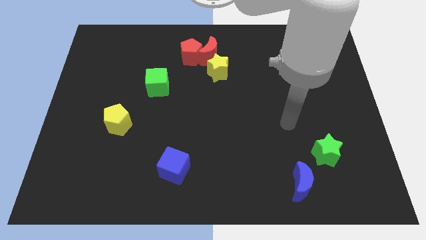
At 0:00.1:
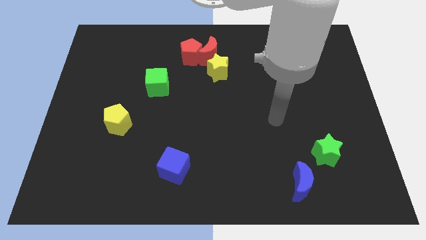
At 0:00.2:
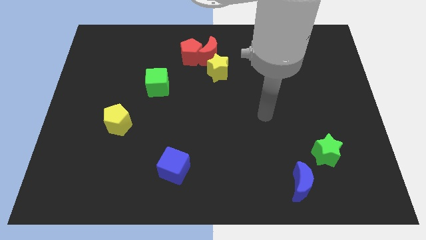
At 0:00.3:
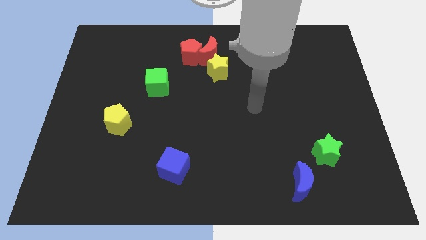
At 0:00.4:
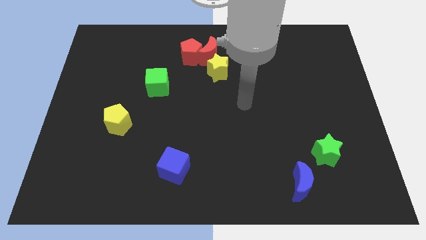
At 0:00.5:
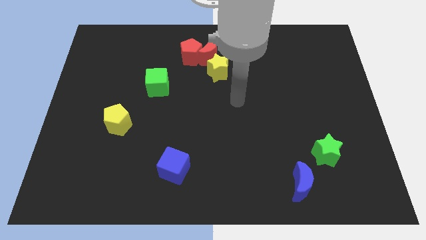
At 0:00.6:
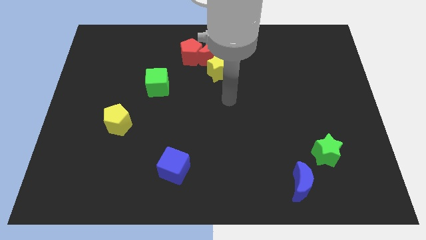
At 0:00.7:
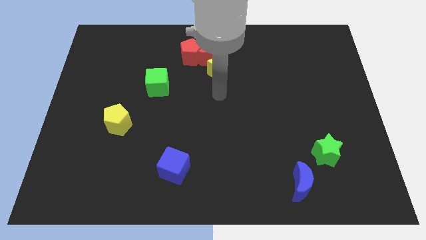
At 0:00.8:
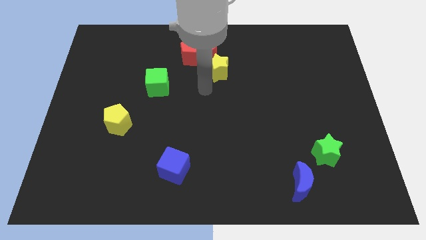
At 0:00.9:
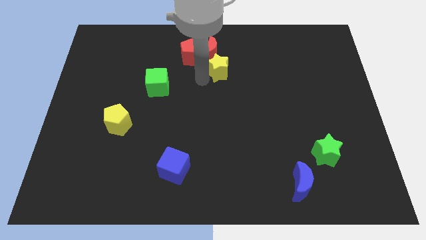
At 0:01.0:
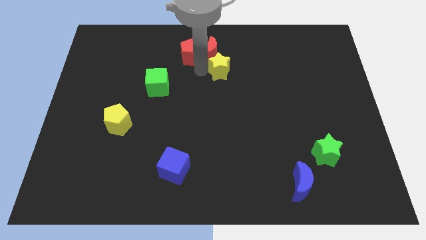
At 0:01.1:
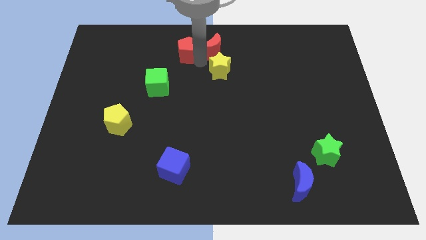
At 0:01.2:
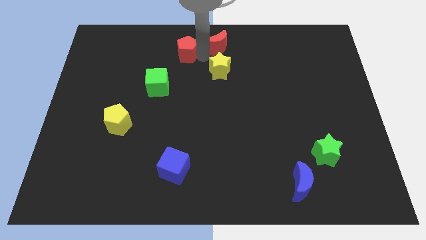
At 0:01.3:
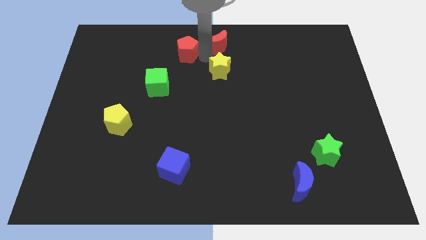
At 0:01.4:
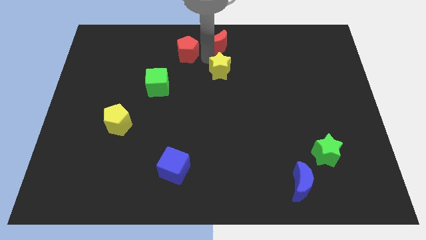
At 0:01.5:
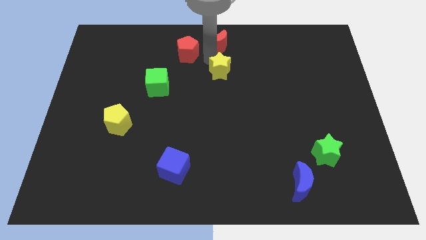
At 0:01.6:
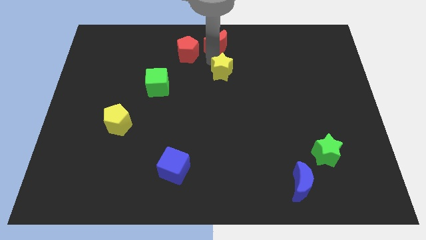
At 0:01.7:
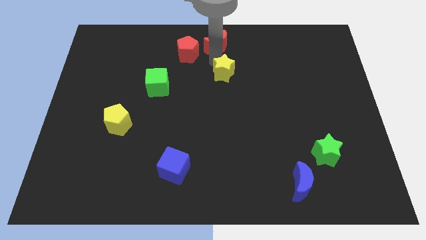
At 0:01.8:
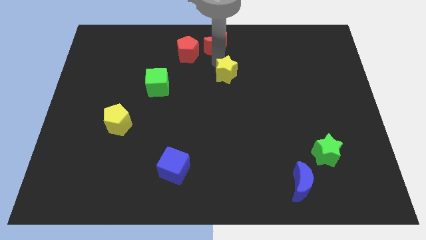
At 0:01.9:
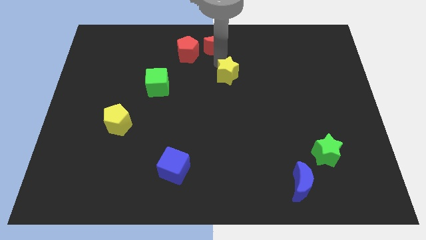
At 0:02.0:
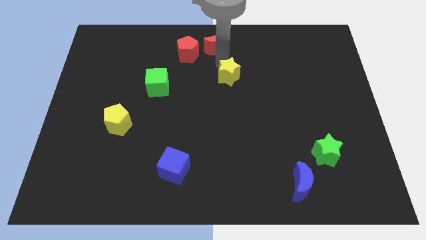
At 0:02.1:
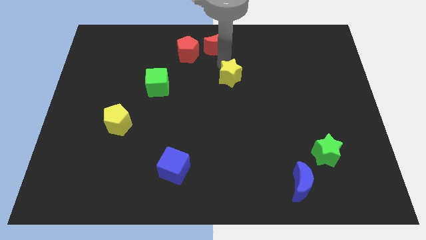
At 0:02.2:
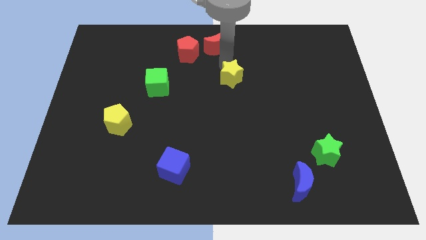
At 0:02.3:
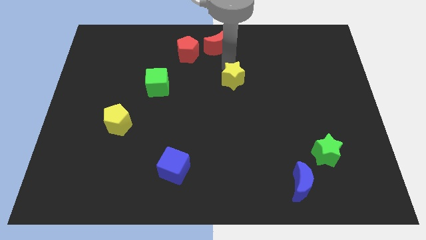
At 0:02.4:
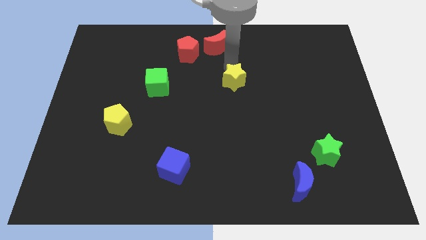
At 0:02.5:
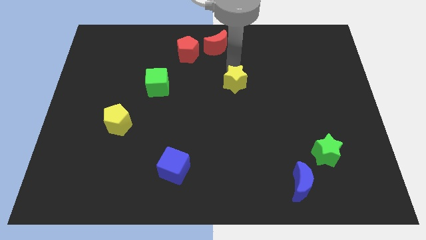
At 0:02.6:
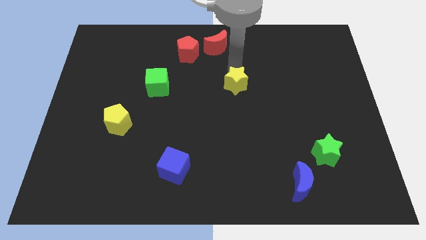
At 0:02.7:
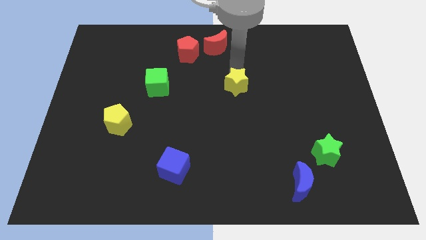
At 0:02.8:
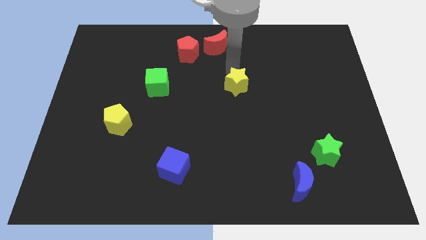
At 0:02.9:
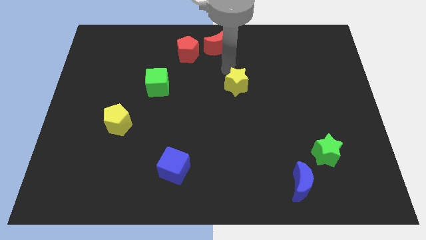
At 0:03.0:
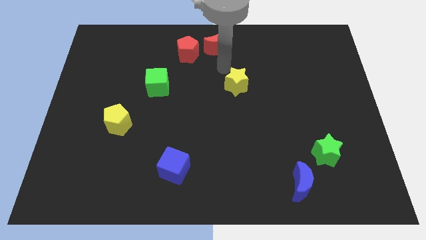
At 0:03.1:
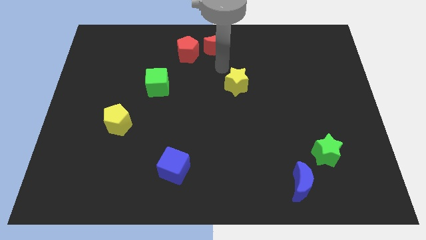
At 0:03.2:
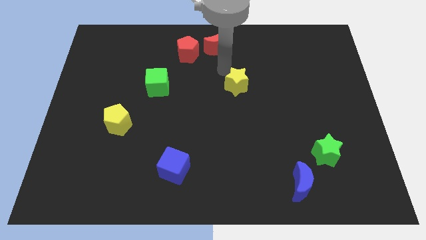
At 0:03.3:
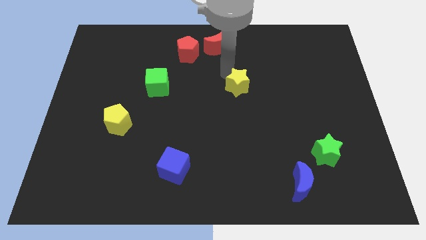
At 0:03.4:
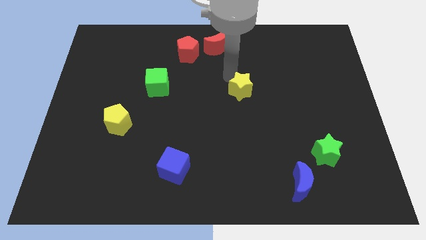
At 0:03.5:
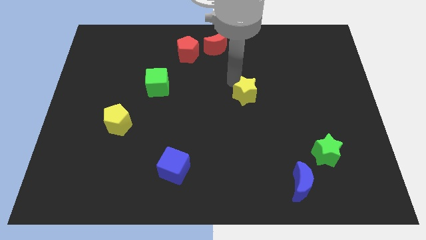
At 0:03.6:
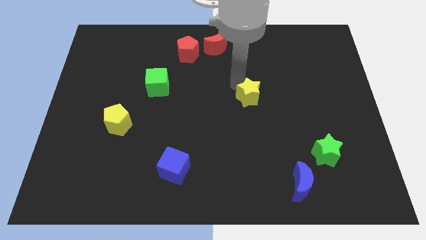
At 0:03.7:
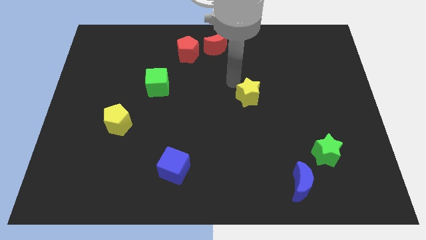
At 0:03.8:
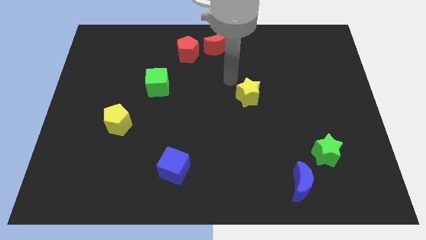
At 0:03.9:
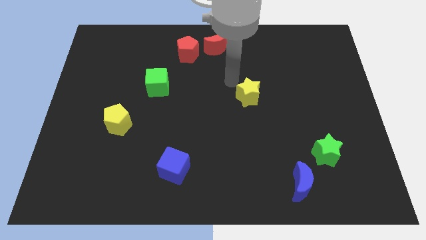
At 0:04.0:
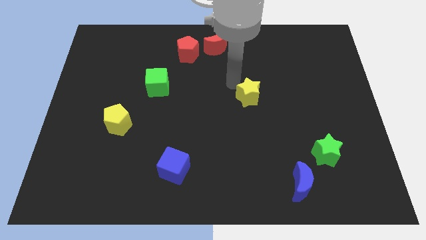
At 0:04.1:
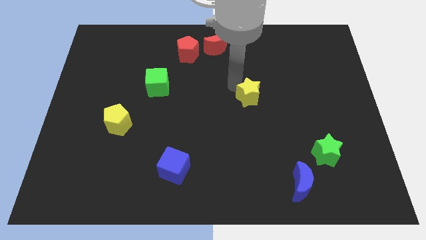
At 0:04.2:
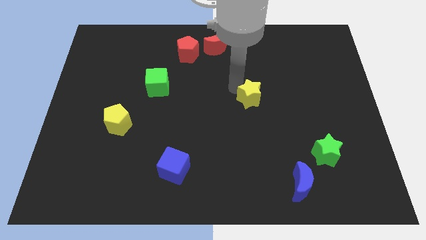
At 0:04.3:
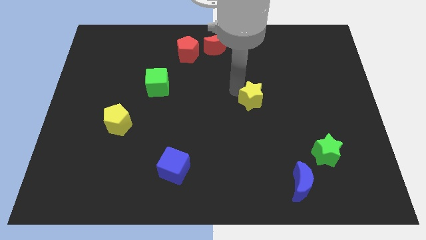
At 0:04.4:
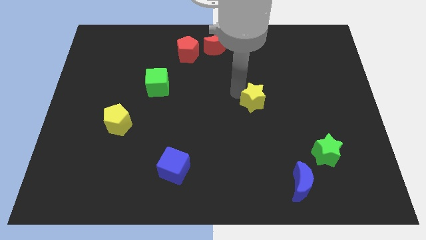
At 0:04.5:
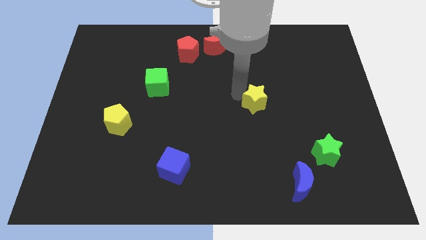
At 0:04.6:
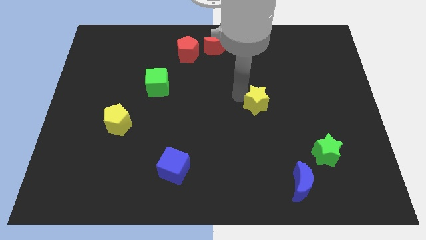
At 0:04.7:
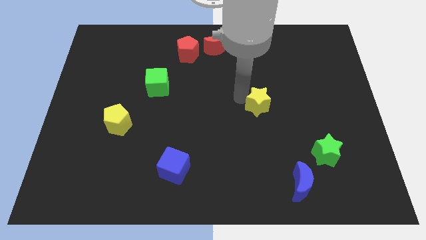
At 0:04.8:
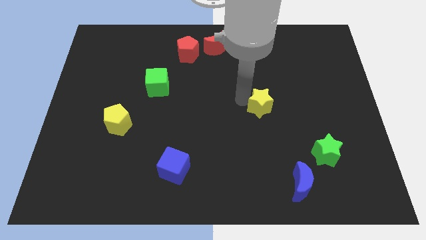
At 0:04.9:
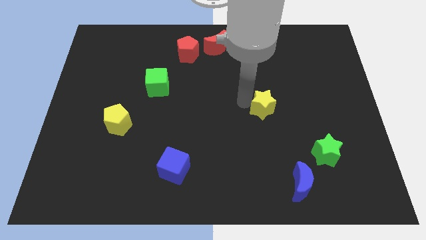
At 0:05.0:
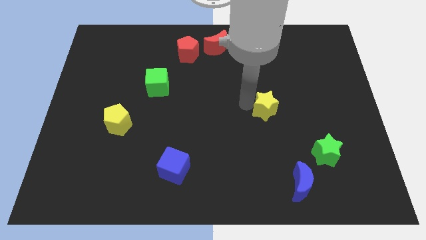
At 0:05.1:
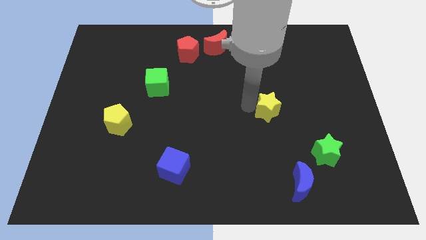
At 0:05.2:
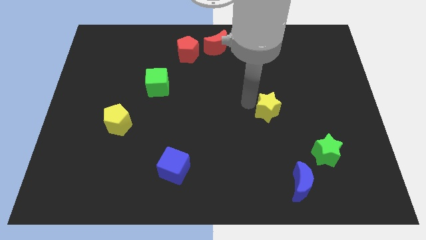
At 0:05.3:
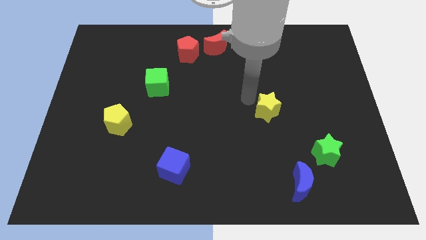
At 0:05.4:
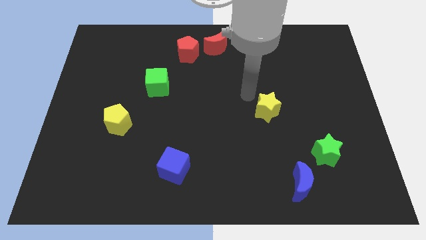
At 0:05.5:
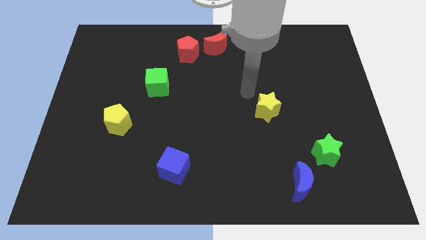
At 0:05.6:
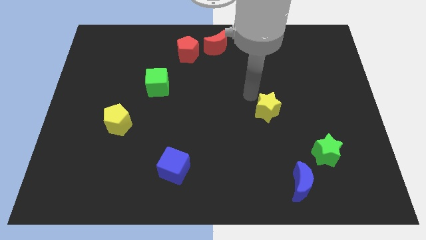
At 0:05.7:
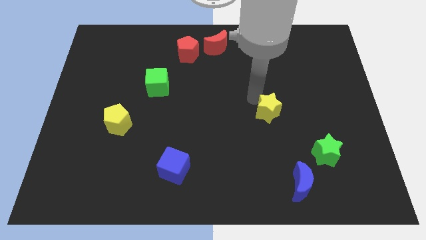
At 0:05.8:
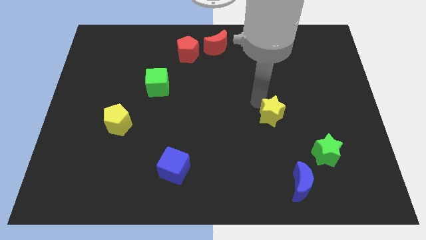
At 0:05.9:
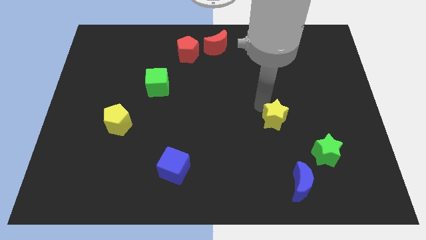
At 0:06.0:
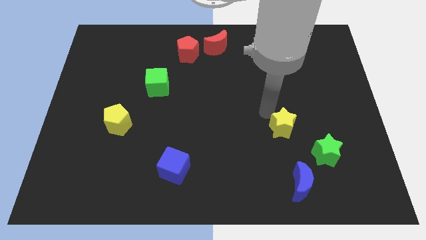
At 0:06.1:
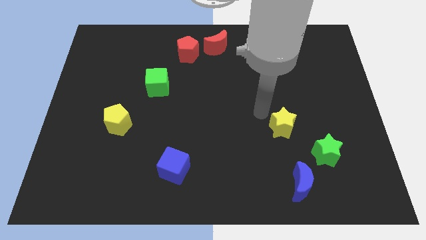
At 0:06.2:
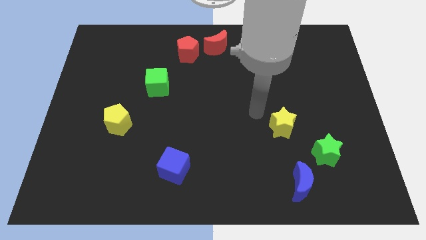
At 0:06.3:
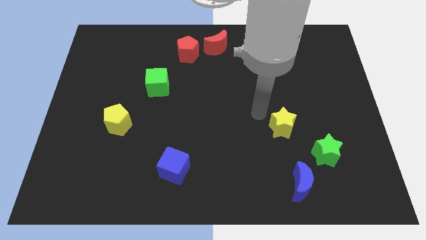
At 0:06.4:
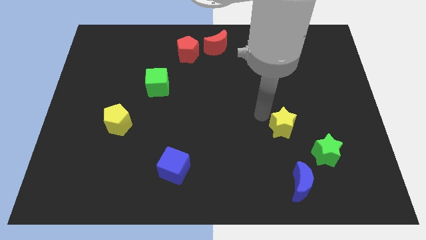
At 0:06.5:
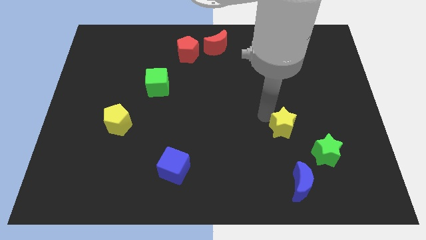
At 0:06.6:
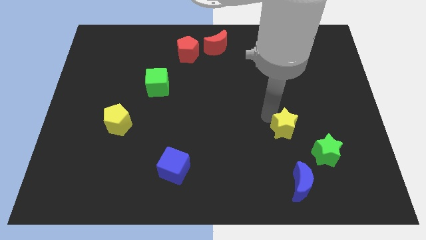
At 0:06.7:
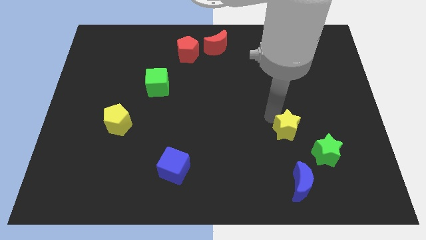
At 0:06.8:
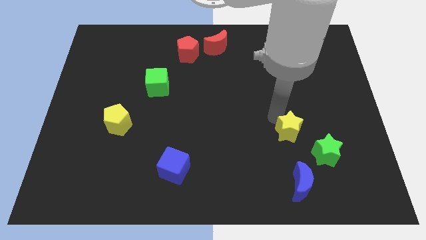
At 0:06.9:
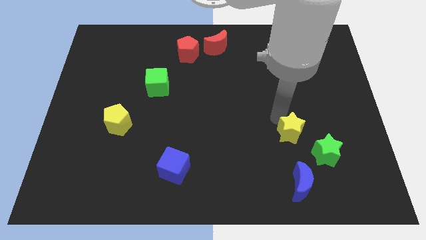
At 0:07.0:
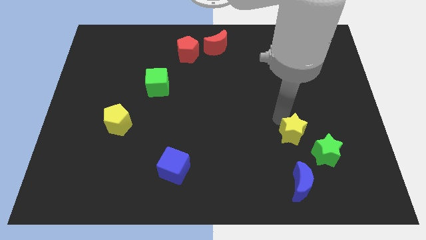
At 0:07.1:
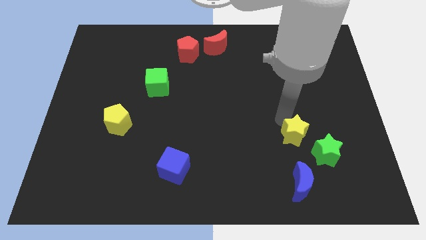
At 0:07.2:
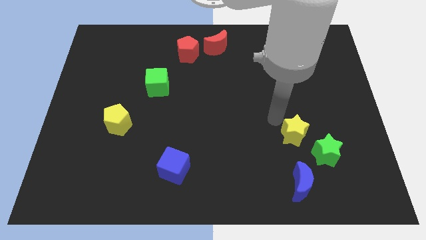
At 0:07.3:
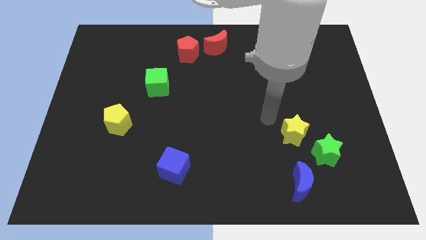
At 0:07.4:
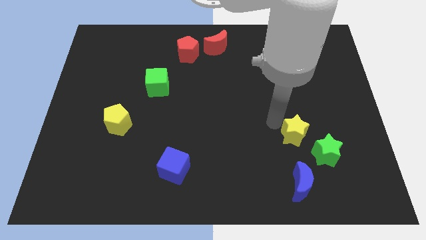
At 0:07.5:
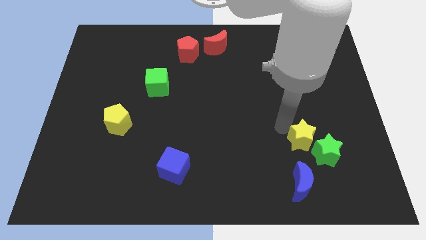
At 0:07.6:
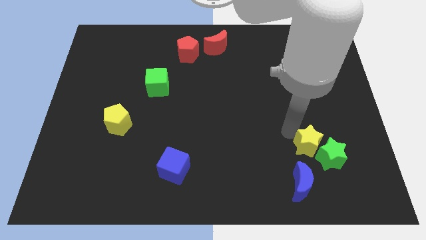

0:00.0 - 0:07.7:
move the yellow star to the green star

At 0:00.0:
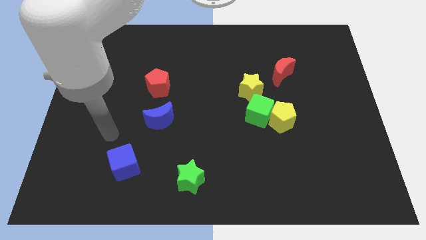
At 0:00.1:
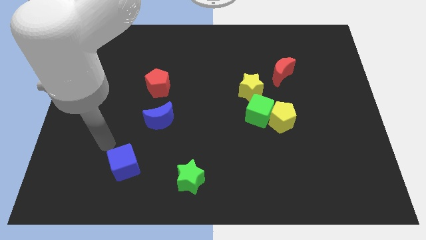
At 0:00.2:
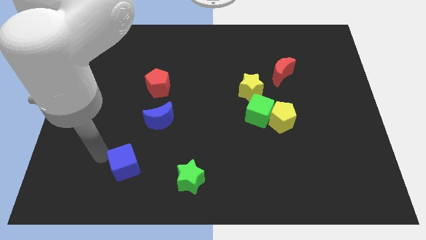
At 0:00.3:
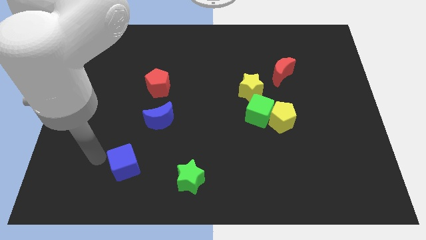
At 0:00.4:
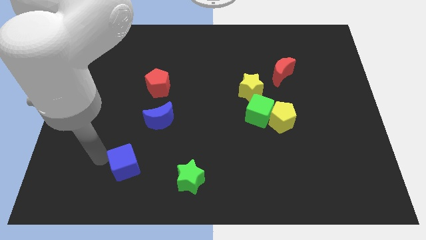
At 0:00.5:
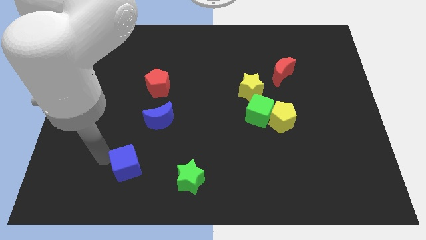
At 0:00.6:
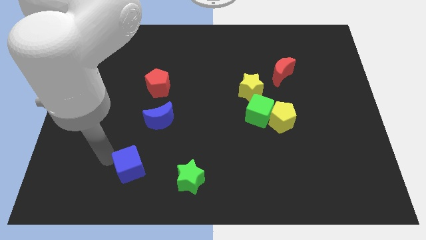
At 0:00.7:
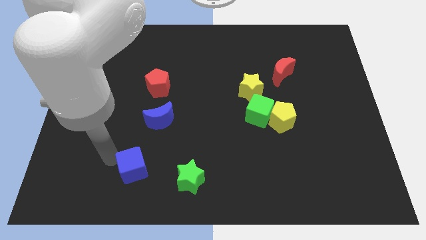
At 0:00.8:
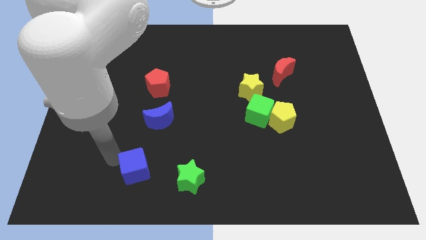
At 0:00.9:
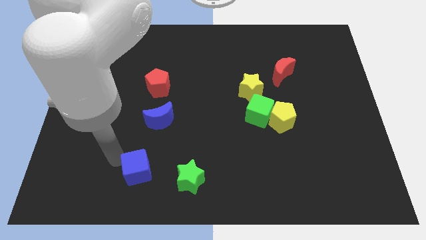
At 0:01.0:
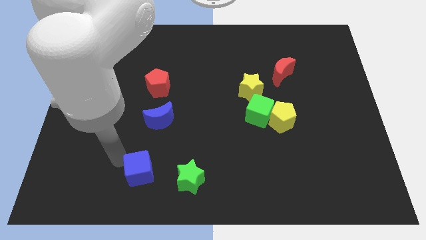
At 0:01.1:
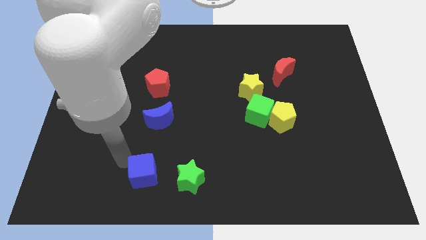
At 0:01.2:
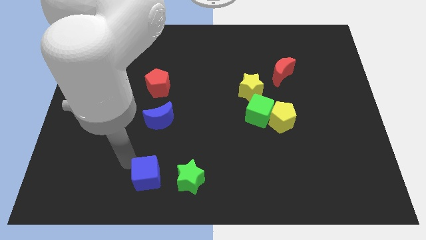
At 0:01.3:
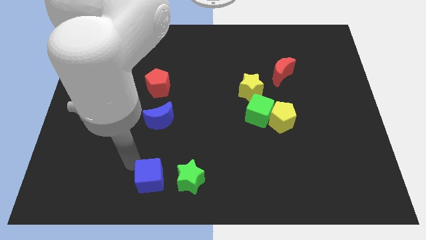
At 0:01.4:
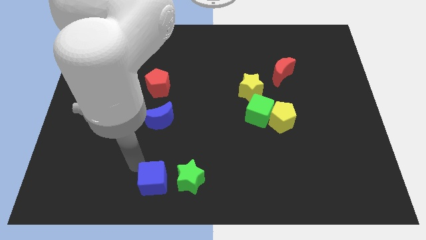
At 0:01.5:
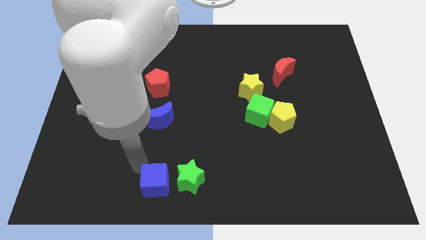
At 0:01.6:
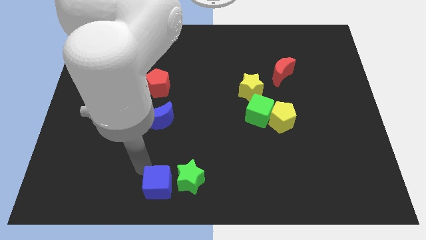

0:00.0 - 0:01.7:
push the blue cube to the green star
